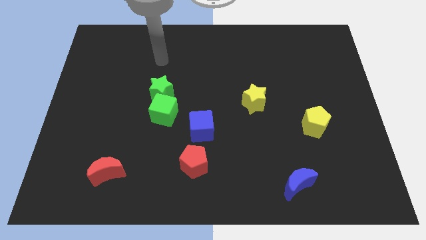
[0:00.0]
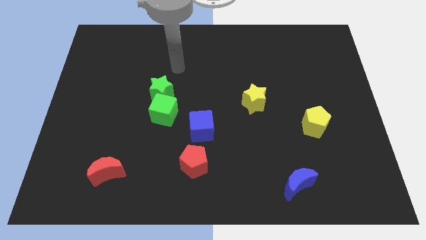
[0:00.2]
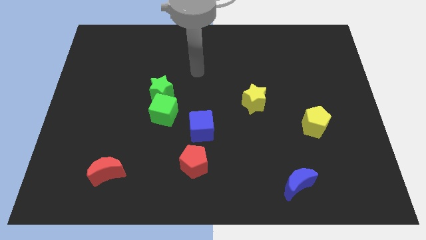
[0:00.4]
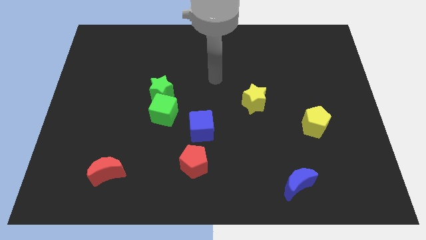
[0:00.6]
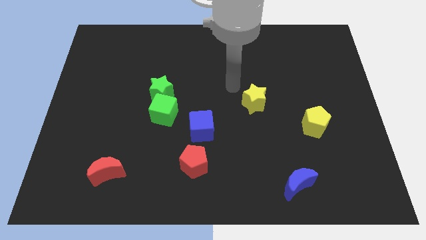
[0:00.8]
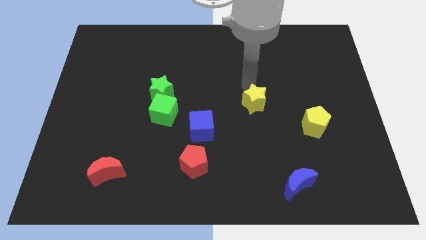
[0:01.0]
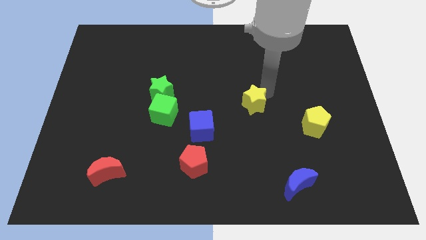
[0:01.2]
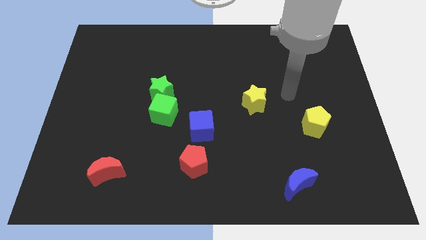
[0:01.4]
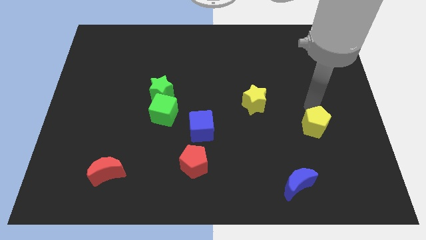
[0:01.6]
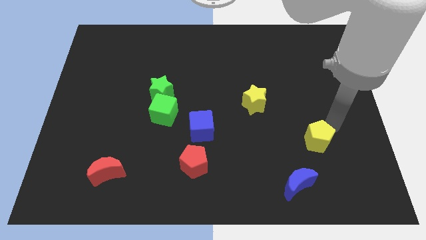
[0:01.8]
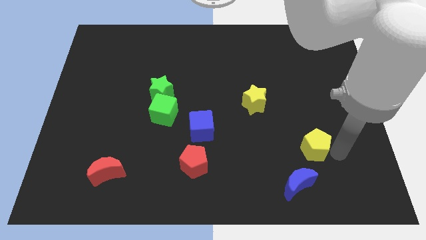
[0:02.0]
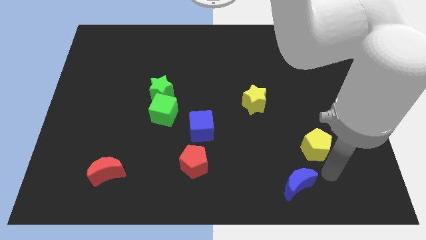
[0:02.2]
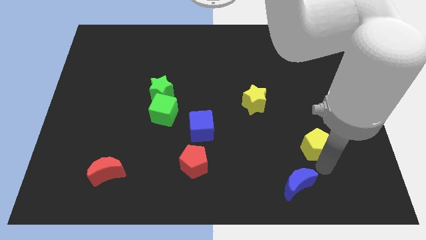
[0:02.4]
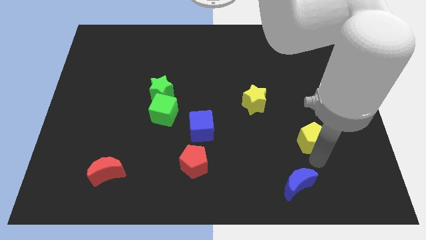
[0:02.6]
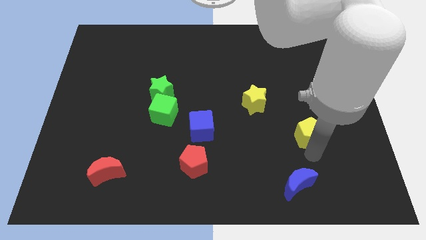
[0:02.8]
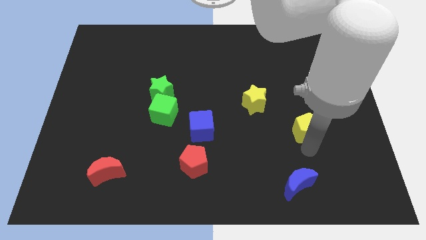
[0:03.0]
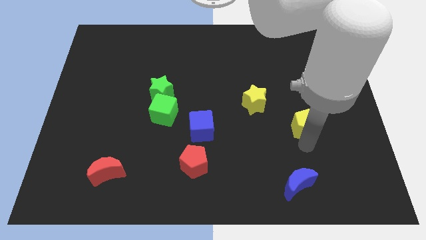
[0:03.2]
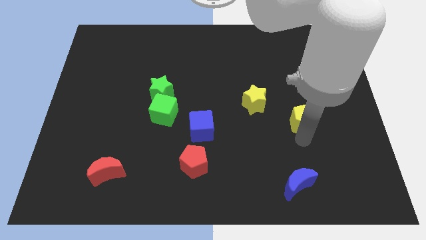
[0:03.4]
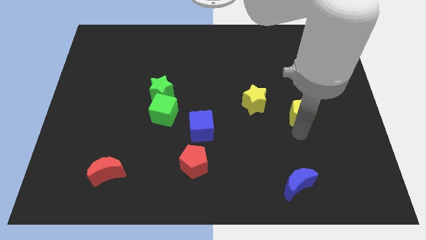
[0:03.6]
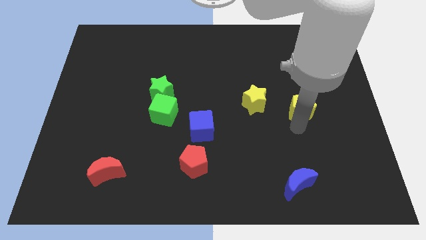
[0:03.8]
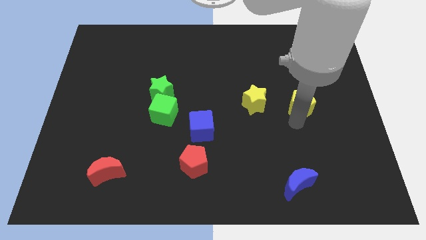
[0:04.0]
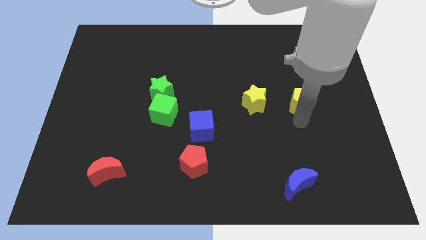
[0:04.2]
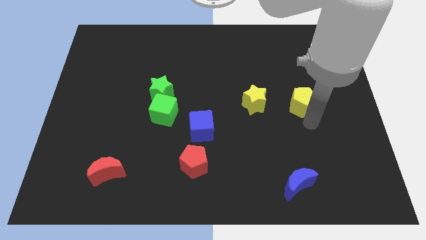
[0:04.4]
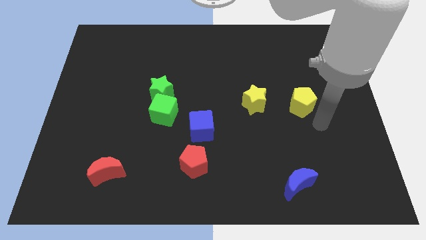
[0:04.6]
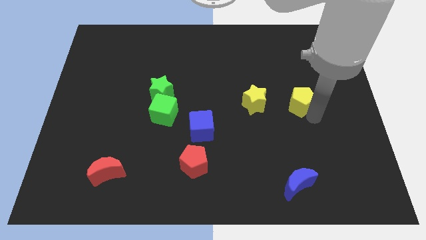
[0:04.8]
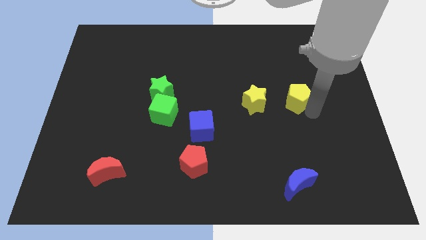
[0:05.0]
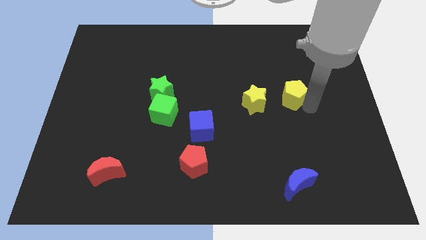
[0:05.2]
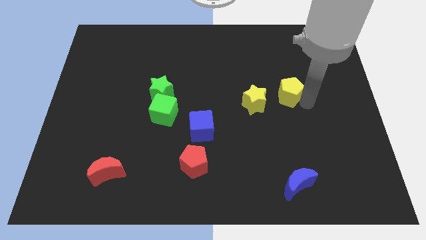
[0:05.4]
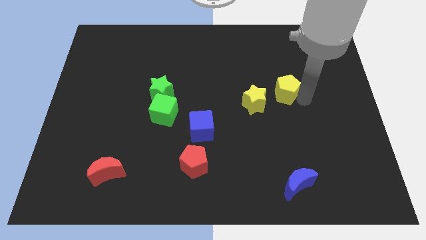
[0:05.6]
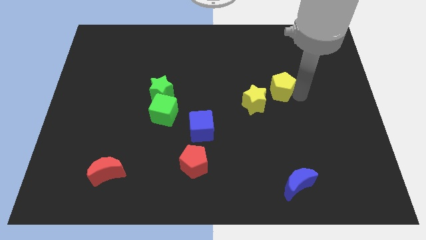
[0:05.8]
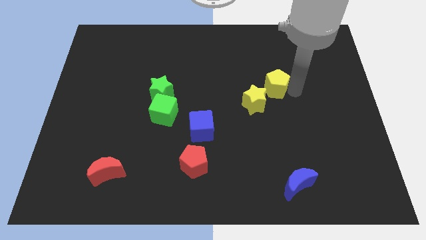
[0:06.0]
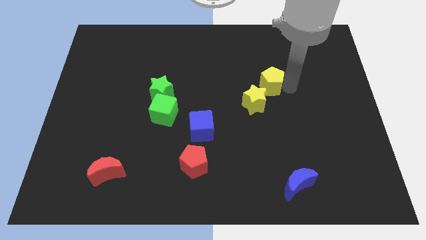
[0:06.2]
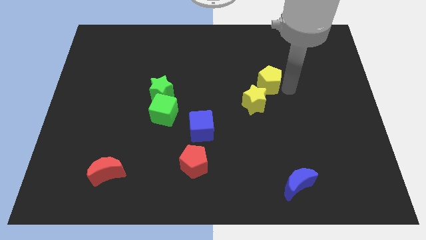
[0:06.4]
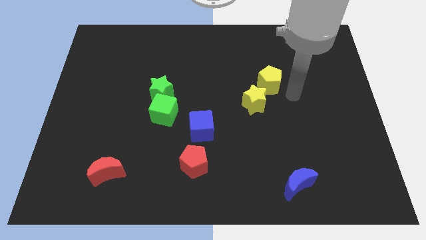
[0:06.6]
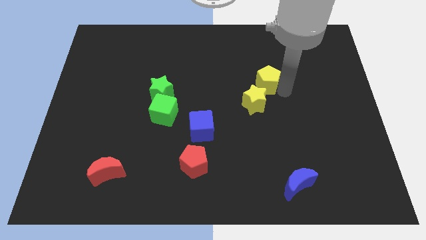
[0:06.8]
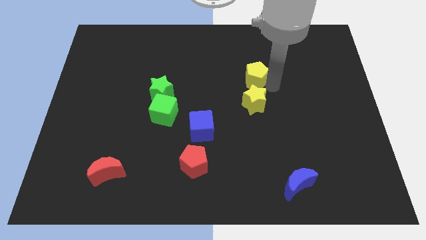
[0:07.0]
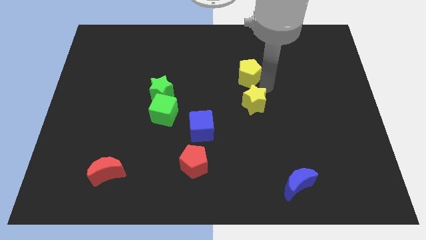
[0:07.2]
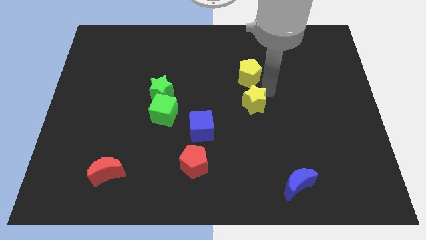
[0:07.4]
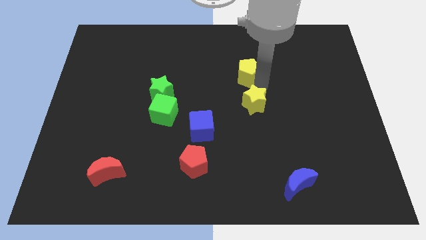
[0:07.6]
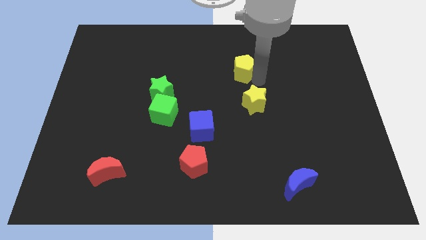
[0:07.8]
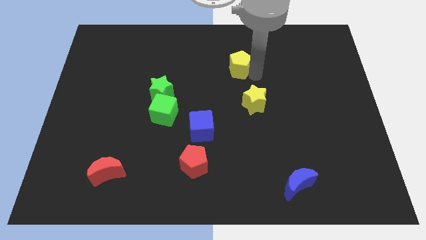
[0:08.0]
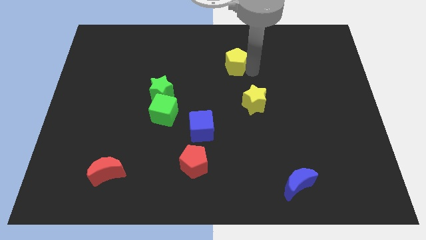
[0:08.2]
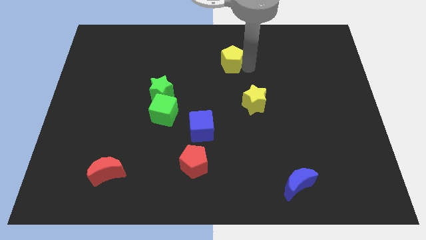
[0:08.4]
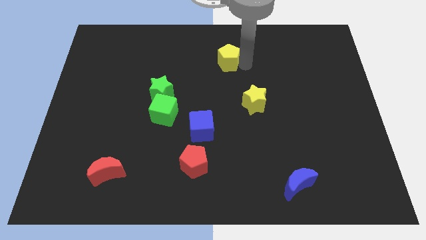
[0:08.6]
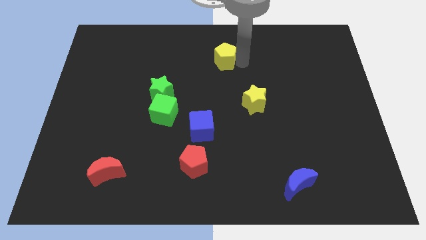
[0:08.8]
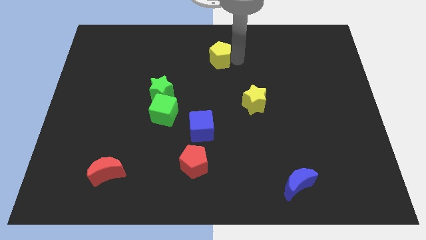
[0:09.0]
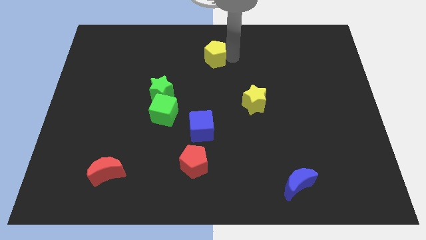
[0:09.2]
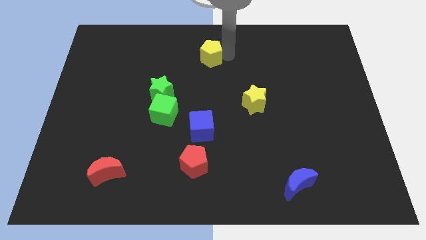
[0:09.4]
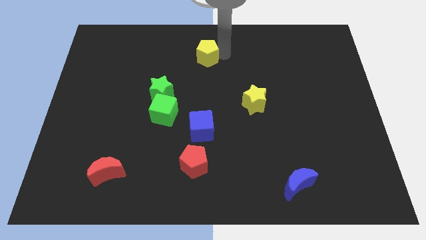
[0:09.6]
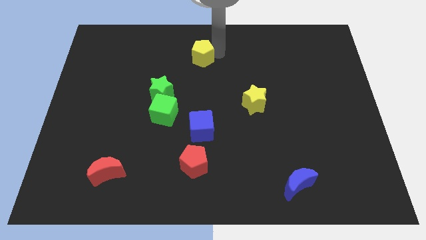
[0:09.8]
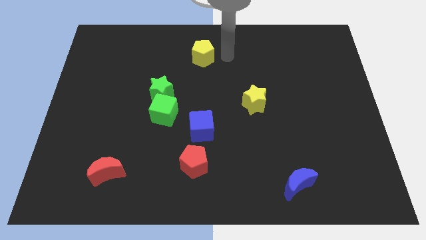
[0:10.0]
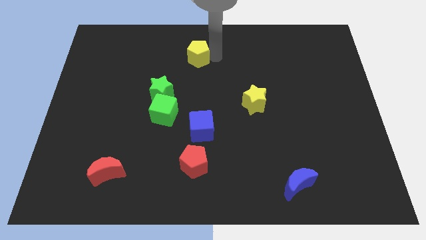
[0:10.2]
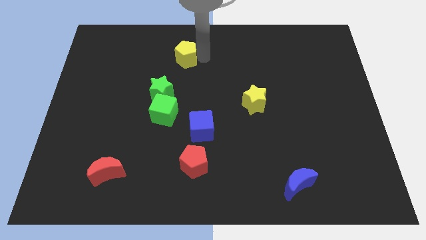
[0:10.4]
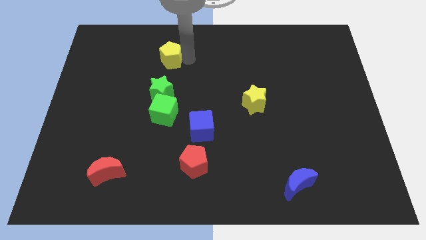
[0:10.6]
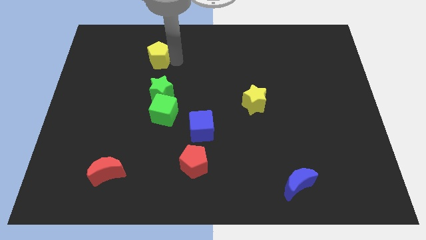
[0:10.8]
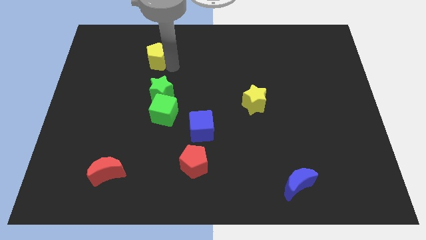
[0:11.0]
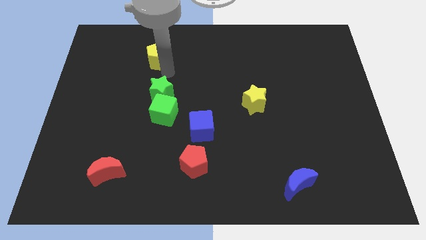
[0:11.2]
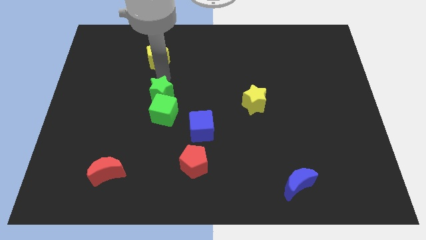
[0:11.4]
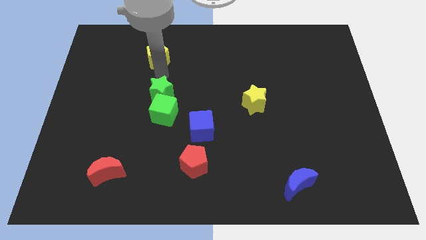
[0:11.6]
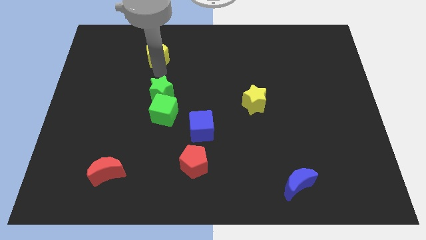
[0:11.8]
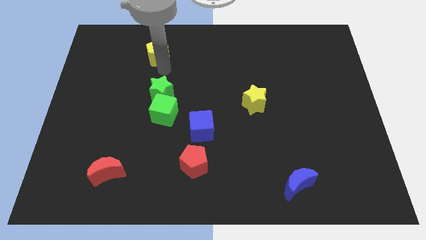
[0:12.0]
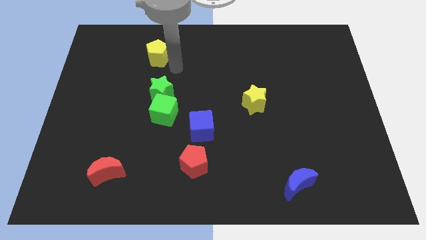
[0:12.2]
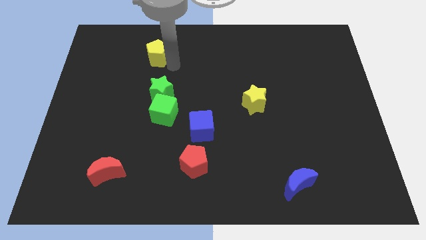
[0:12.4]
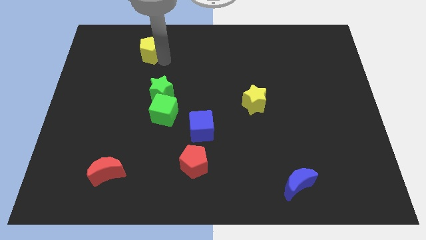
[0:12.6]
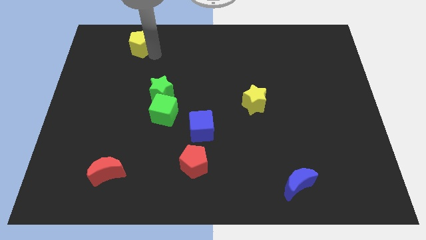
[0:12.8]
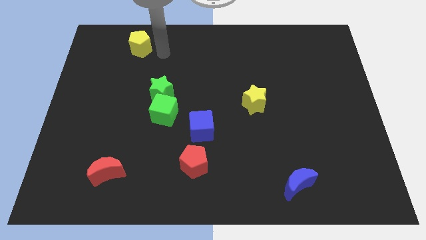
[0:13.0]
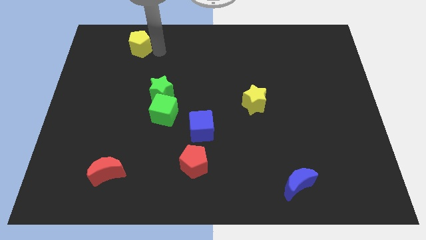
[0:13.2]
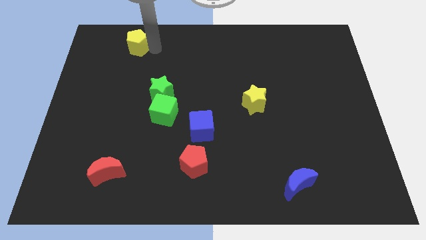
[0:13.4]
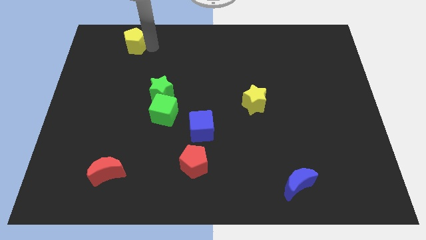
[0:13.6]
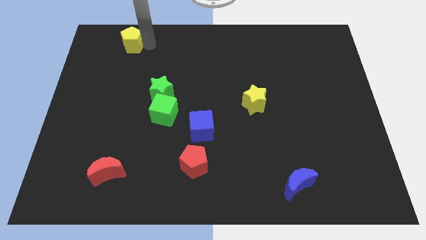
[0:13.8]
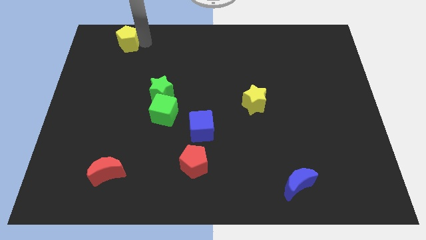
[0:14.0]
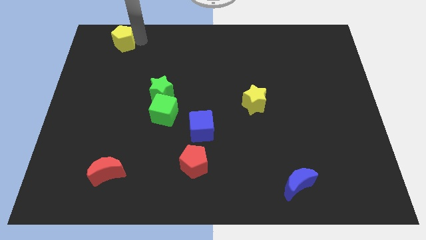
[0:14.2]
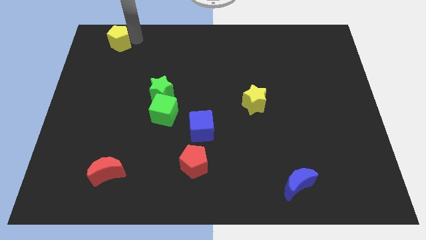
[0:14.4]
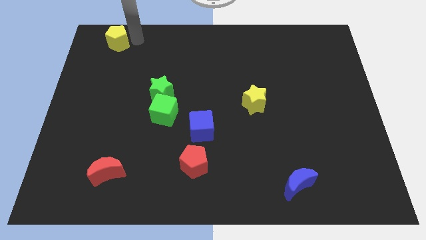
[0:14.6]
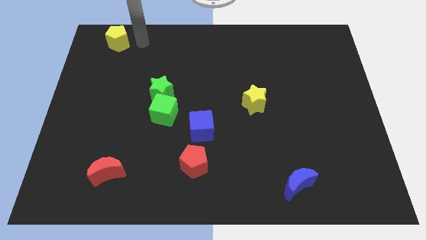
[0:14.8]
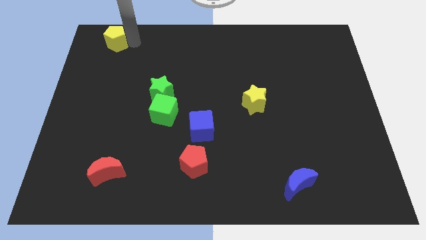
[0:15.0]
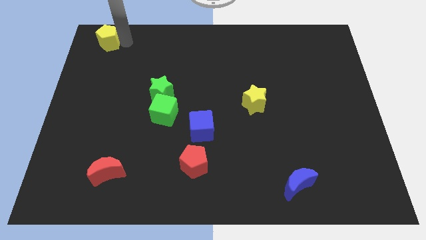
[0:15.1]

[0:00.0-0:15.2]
push the yellow pentagon to the upper left corner
